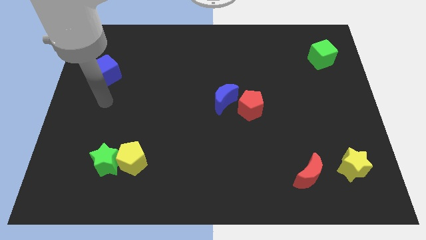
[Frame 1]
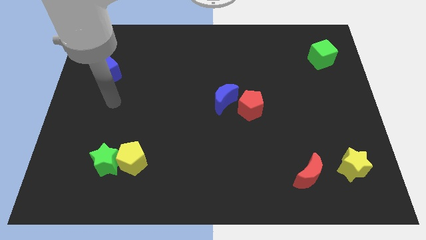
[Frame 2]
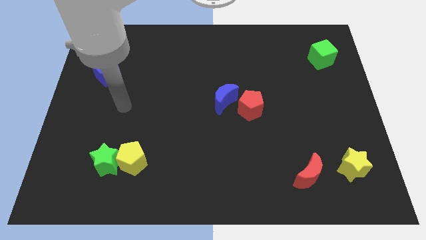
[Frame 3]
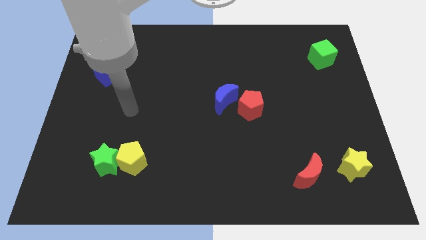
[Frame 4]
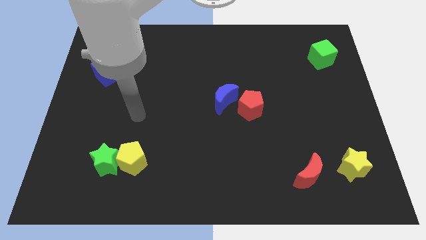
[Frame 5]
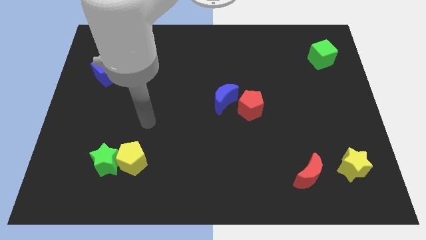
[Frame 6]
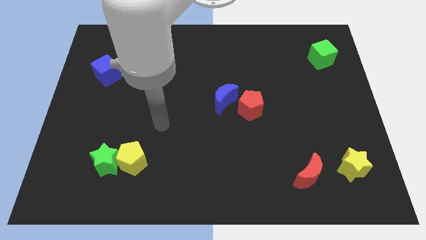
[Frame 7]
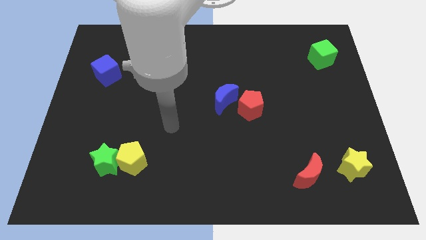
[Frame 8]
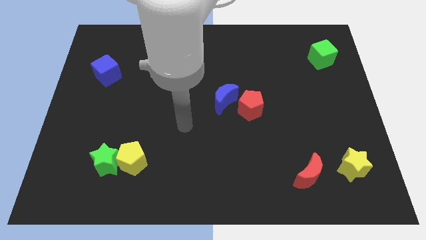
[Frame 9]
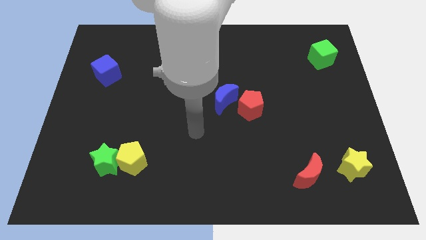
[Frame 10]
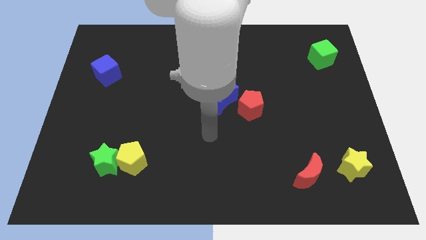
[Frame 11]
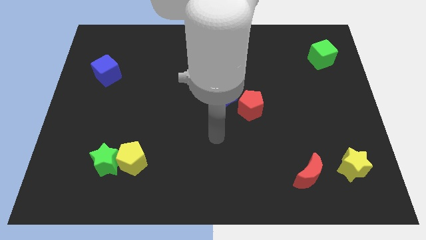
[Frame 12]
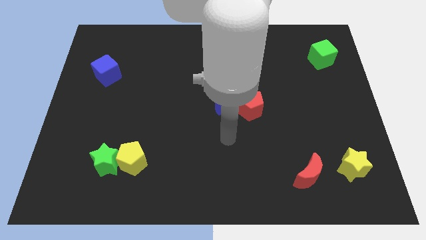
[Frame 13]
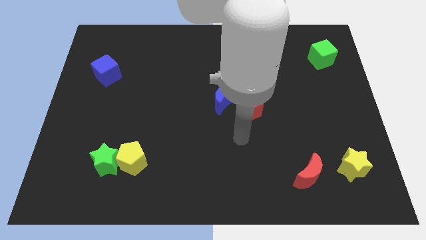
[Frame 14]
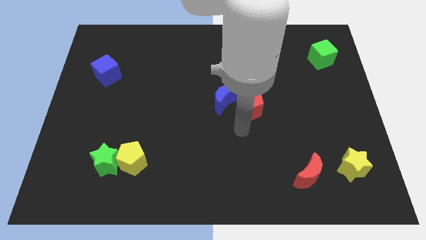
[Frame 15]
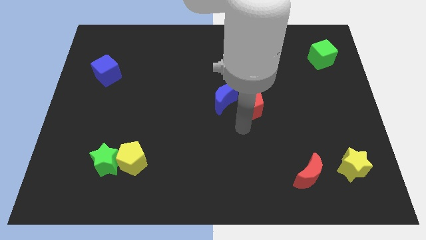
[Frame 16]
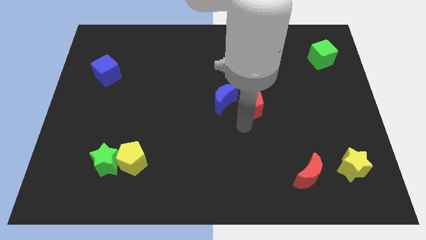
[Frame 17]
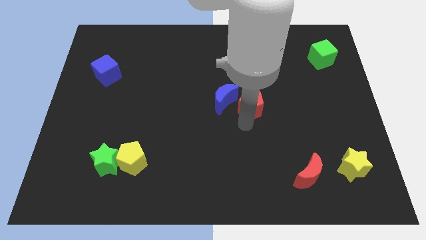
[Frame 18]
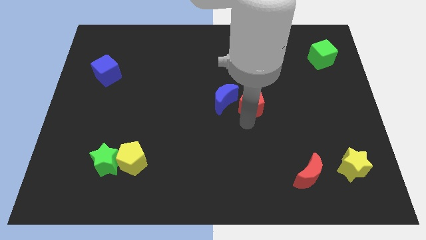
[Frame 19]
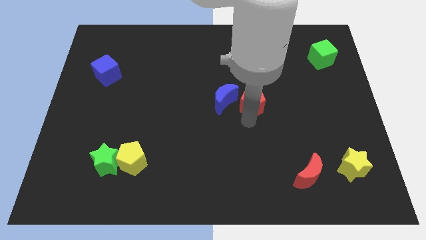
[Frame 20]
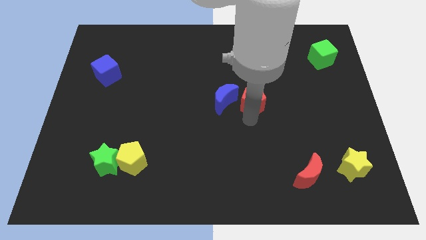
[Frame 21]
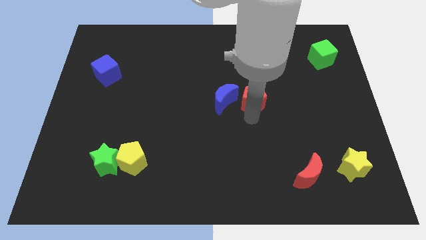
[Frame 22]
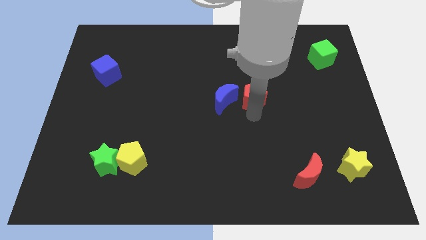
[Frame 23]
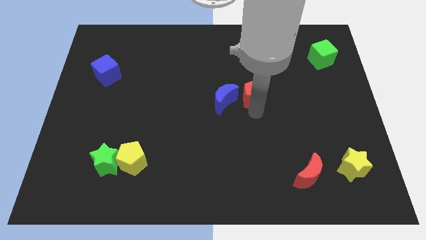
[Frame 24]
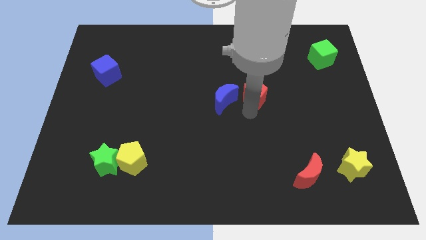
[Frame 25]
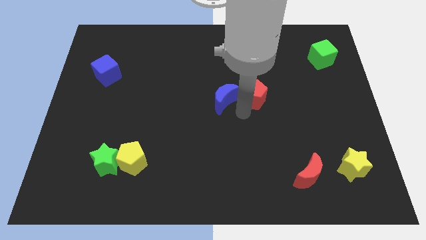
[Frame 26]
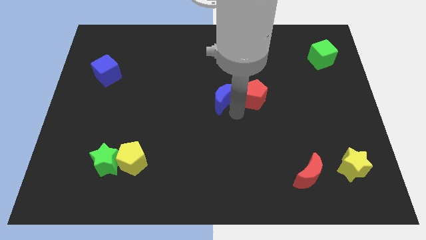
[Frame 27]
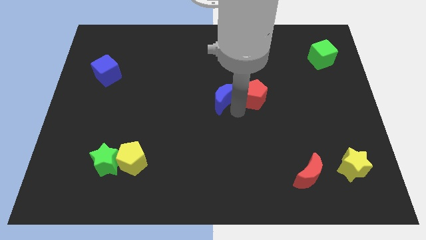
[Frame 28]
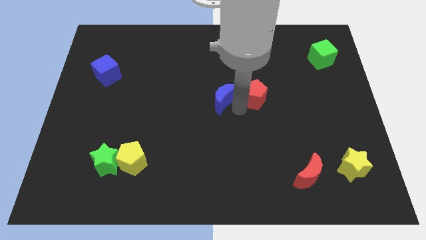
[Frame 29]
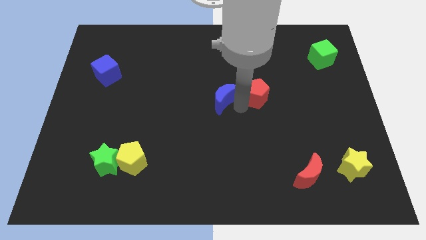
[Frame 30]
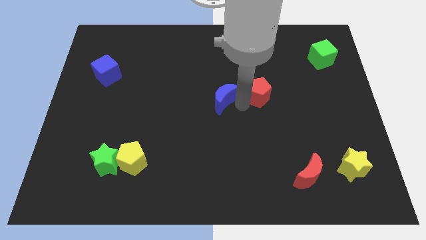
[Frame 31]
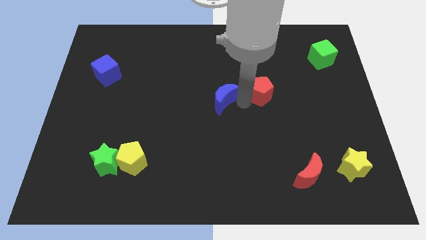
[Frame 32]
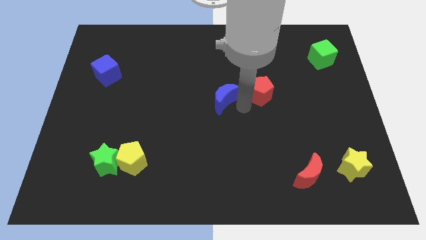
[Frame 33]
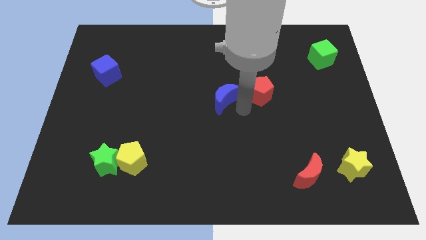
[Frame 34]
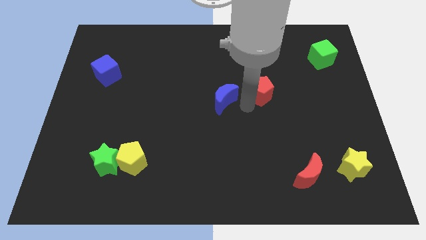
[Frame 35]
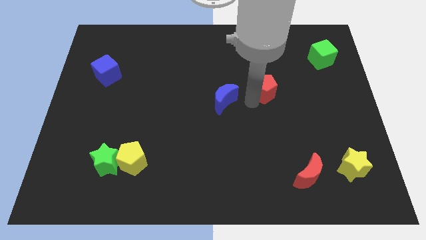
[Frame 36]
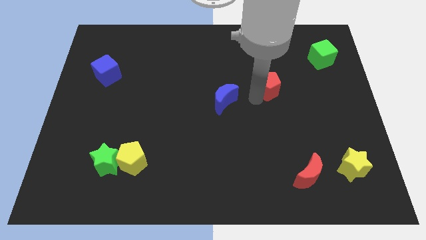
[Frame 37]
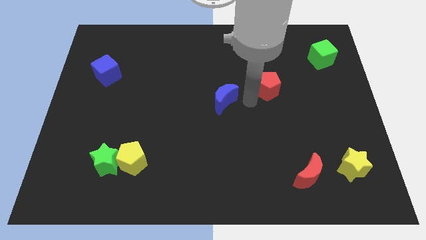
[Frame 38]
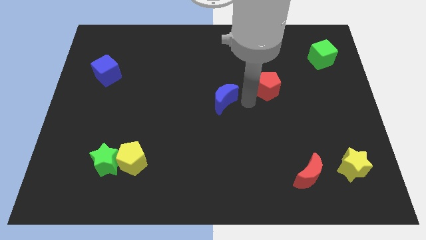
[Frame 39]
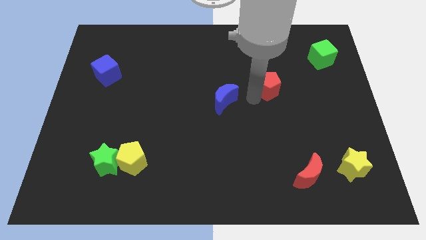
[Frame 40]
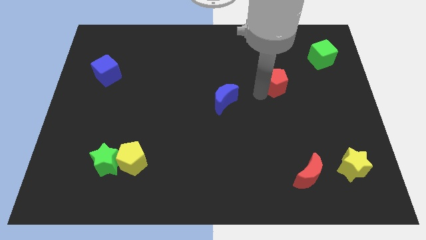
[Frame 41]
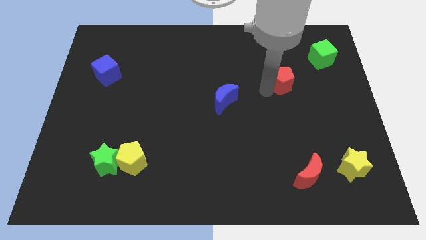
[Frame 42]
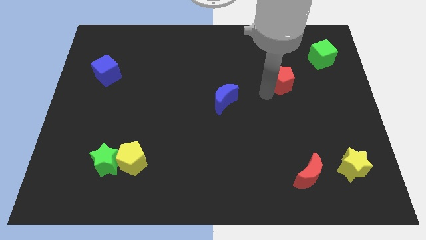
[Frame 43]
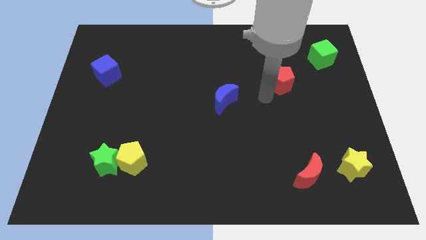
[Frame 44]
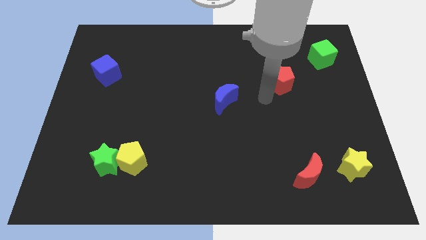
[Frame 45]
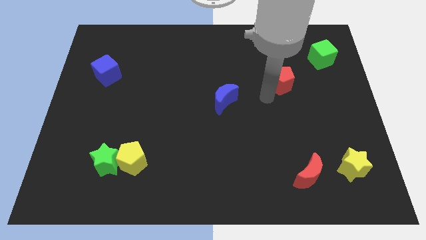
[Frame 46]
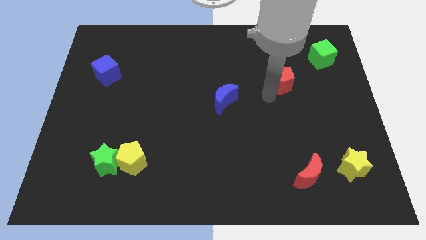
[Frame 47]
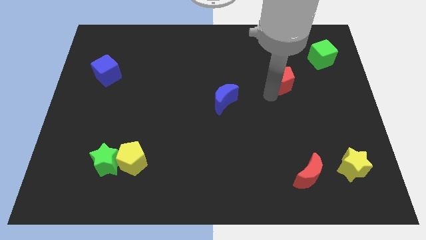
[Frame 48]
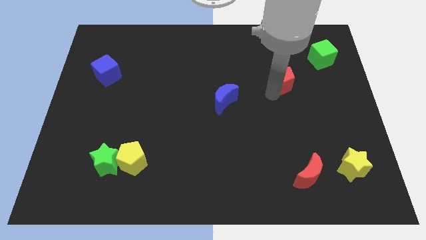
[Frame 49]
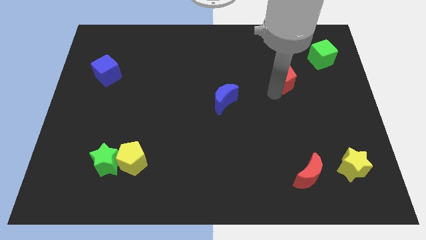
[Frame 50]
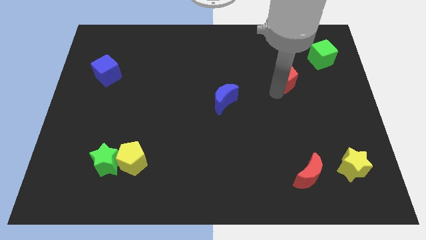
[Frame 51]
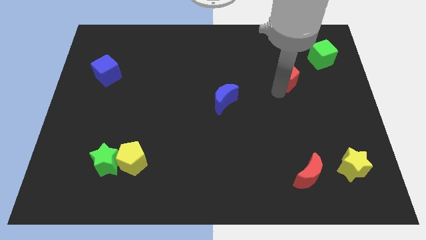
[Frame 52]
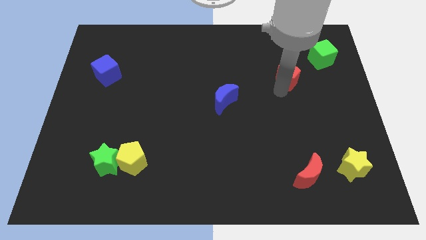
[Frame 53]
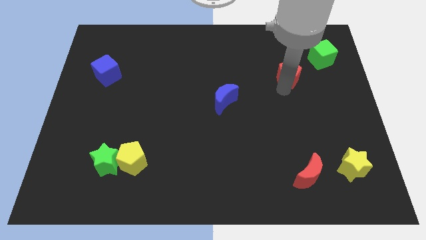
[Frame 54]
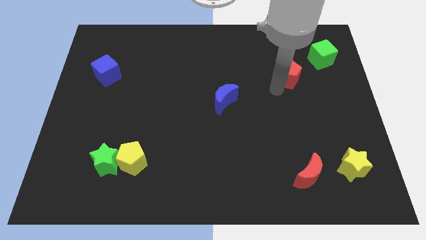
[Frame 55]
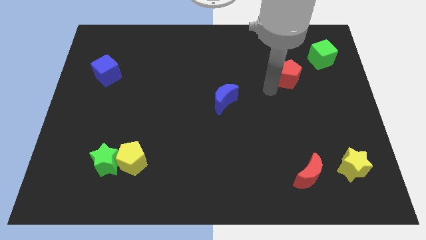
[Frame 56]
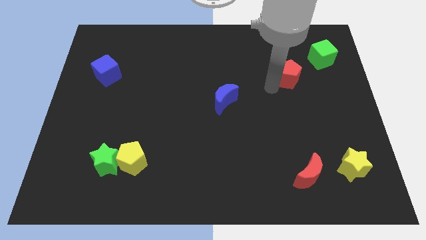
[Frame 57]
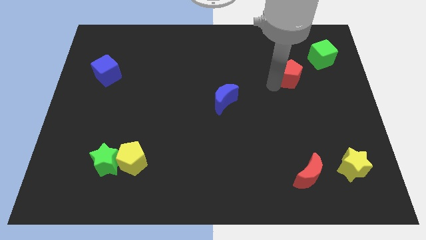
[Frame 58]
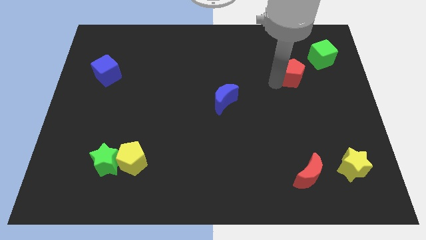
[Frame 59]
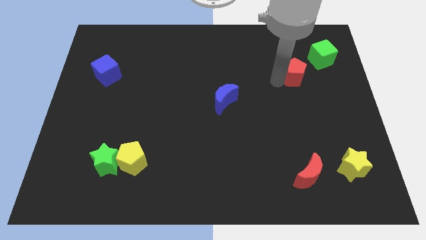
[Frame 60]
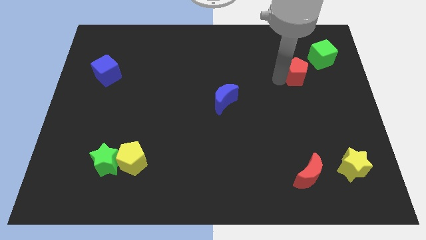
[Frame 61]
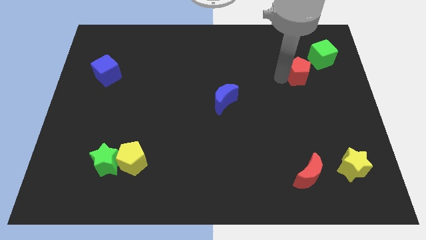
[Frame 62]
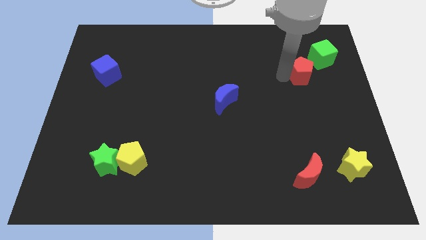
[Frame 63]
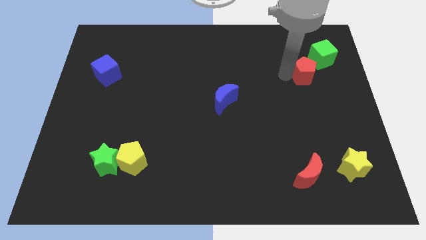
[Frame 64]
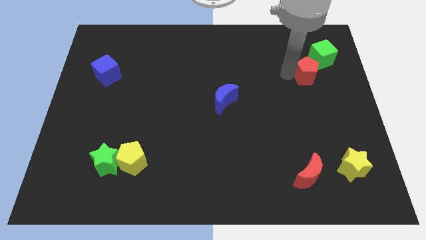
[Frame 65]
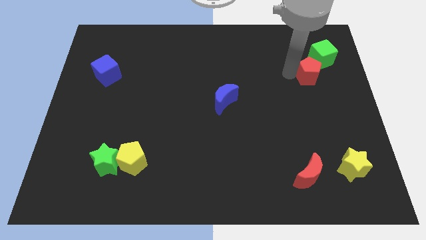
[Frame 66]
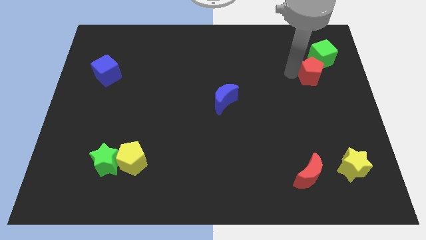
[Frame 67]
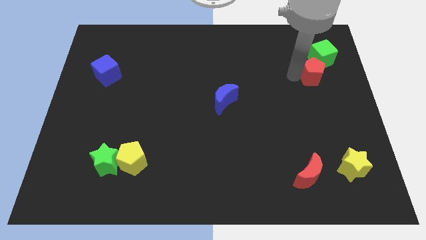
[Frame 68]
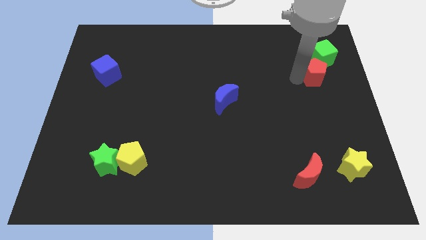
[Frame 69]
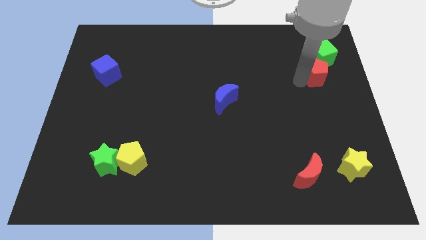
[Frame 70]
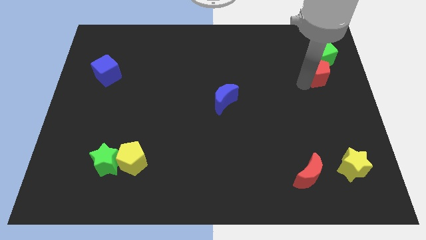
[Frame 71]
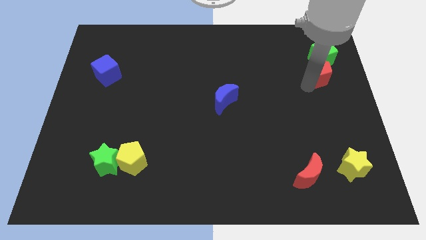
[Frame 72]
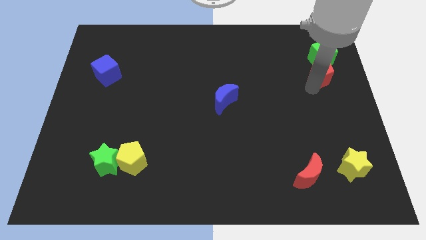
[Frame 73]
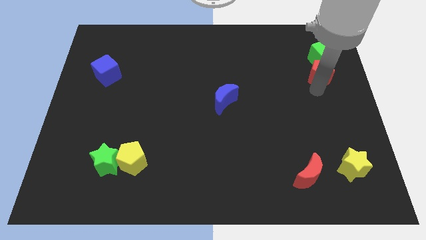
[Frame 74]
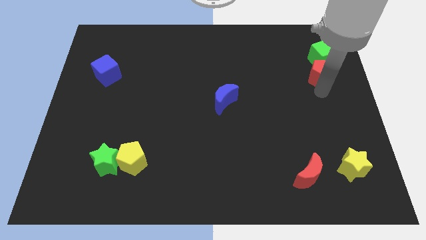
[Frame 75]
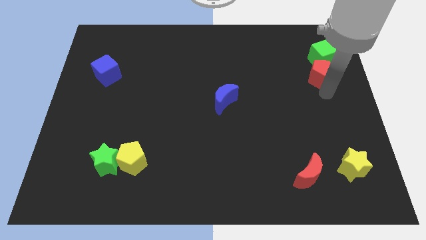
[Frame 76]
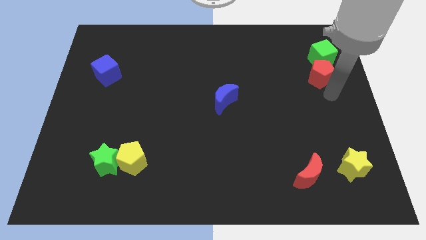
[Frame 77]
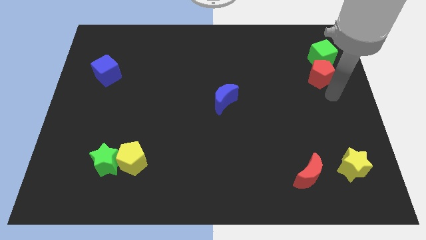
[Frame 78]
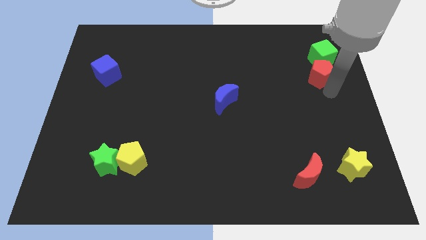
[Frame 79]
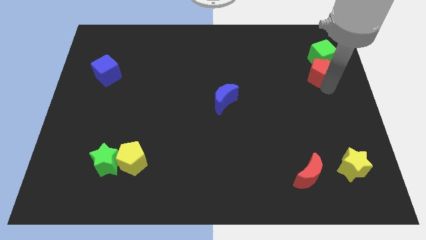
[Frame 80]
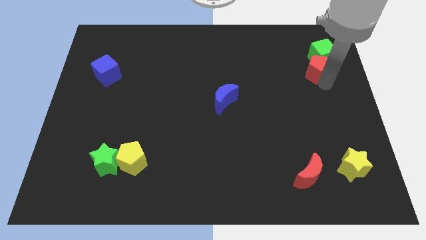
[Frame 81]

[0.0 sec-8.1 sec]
move the red pentagon to the green cube
